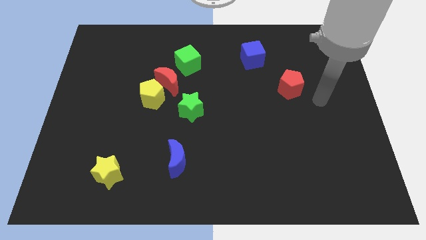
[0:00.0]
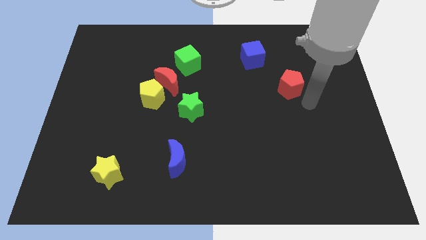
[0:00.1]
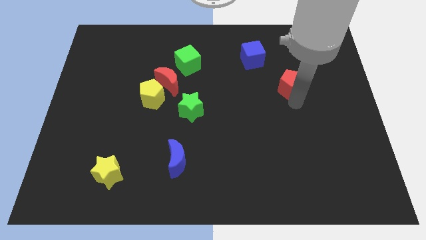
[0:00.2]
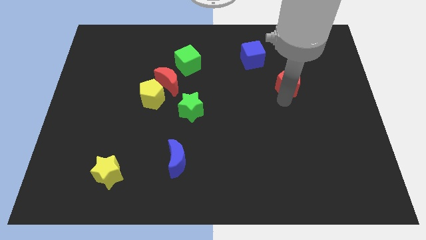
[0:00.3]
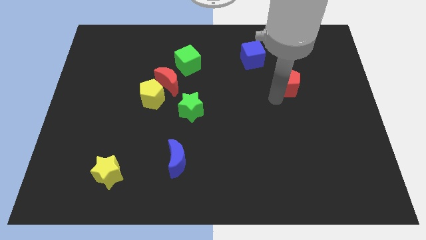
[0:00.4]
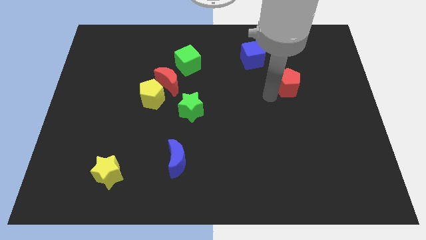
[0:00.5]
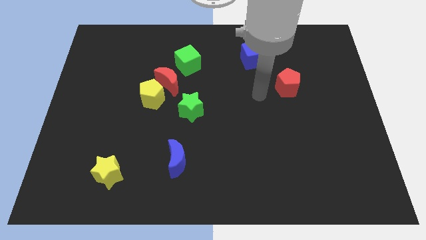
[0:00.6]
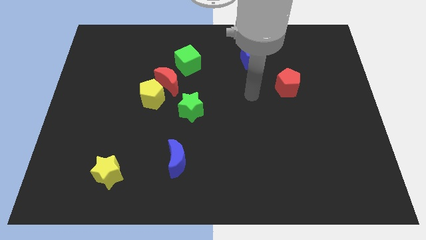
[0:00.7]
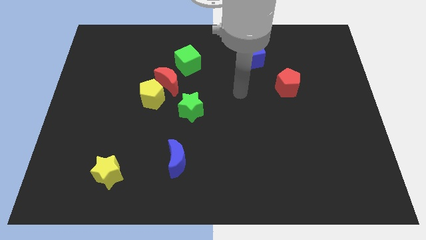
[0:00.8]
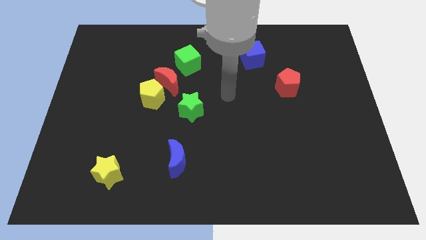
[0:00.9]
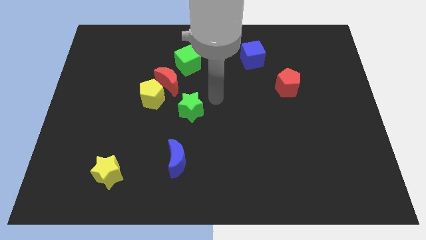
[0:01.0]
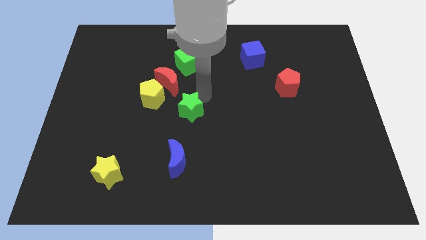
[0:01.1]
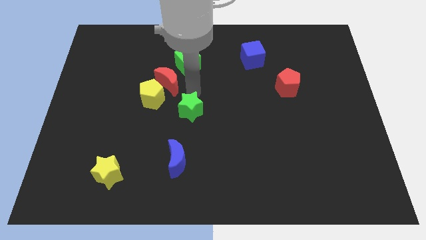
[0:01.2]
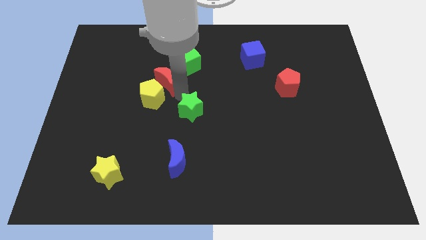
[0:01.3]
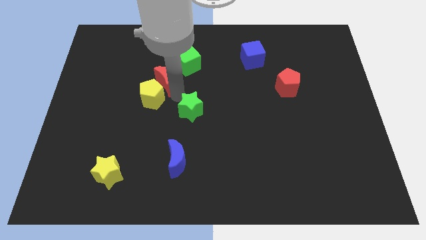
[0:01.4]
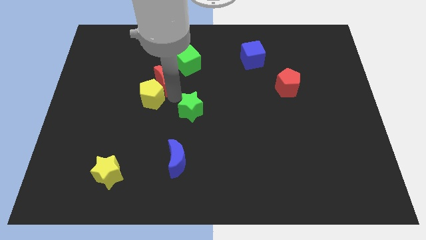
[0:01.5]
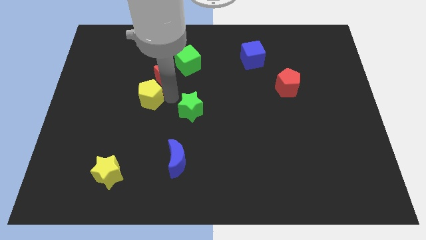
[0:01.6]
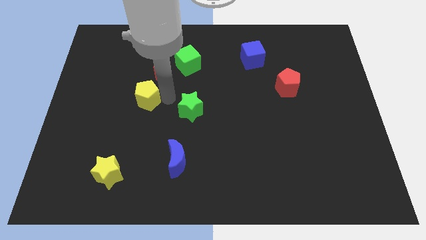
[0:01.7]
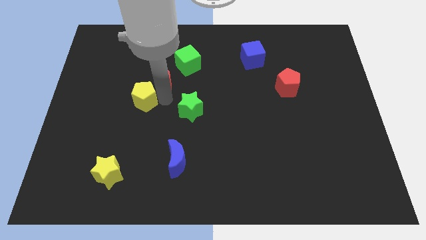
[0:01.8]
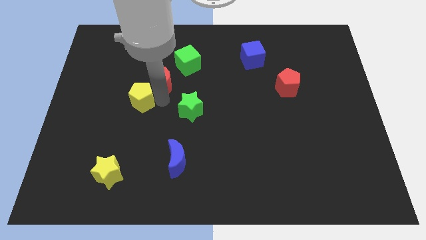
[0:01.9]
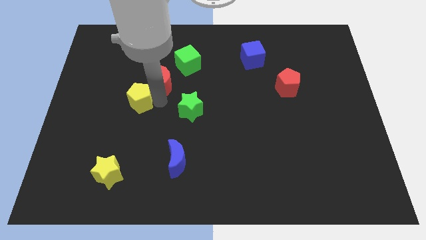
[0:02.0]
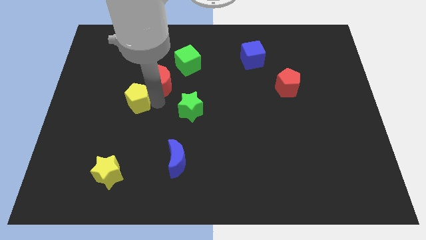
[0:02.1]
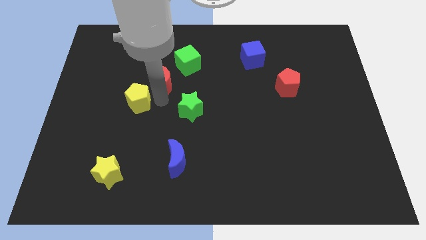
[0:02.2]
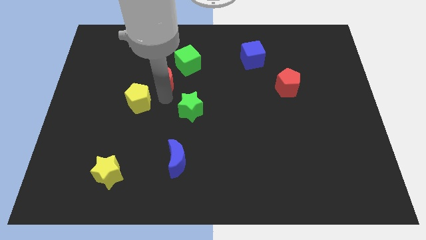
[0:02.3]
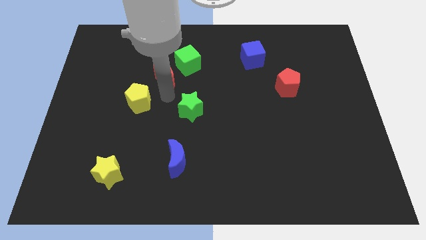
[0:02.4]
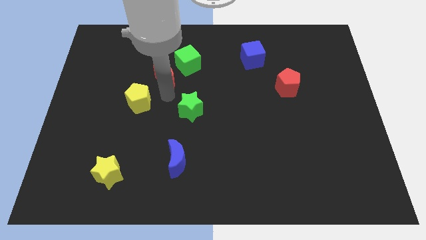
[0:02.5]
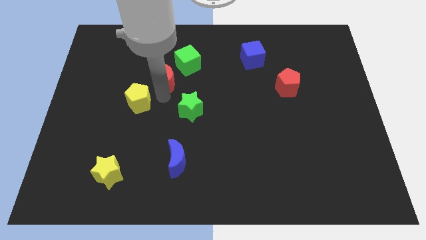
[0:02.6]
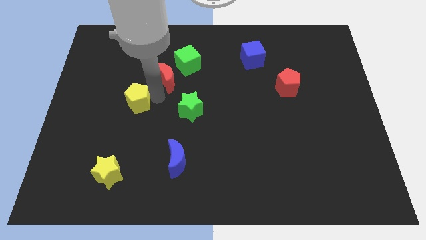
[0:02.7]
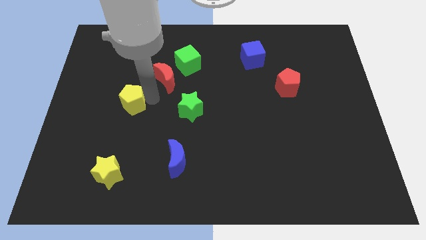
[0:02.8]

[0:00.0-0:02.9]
pull the yellow pentagon apart from the red moon and green star

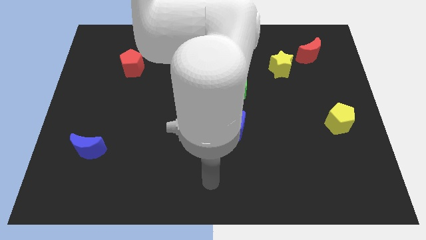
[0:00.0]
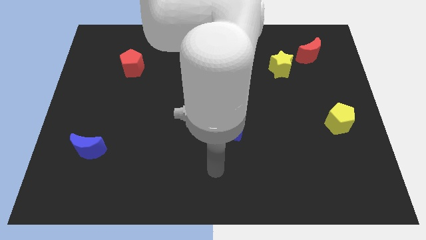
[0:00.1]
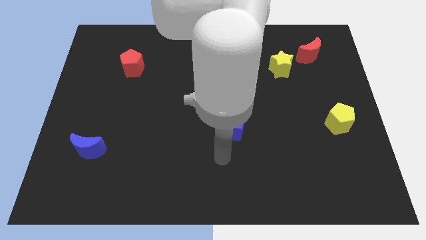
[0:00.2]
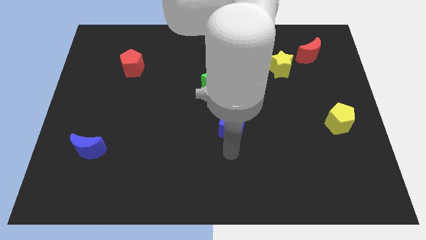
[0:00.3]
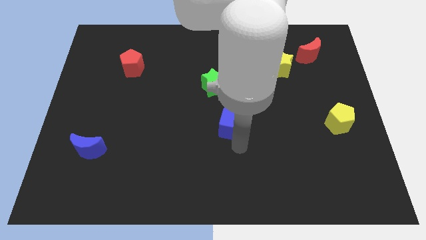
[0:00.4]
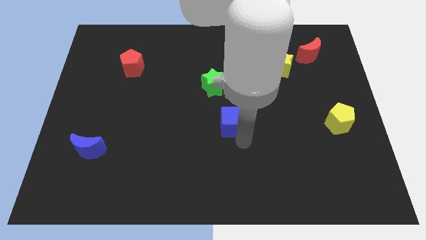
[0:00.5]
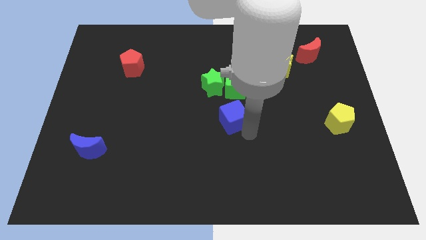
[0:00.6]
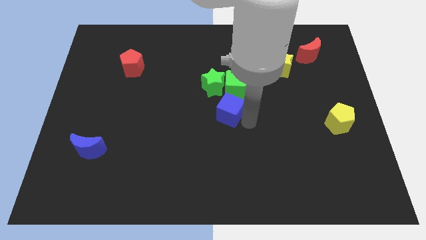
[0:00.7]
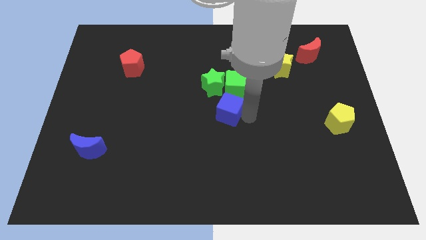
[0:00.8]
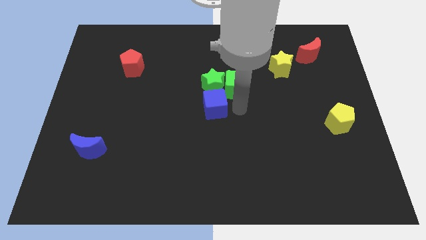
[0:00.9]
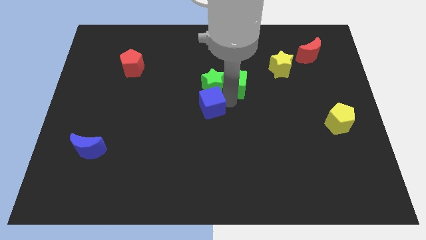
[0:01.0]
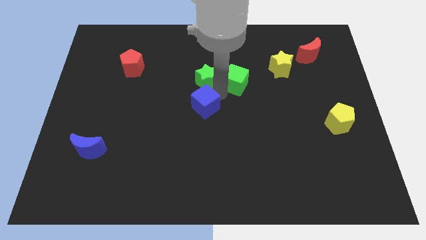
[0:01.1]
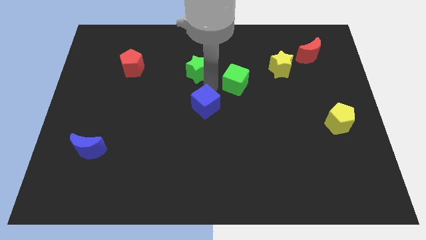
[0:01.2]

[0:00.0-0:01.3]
move the green cube away from the green star

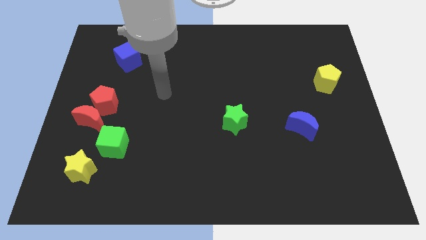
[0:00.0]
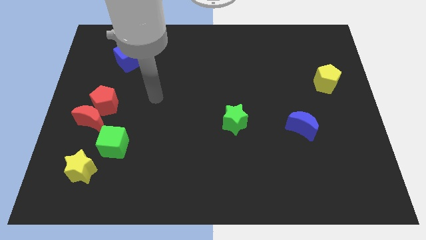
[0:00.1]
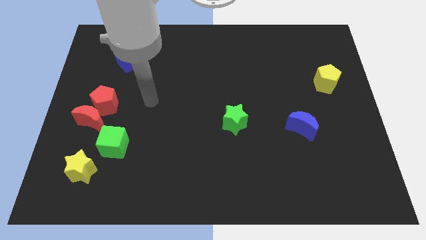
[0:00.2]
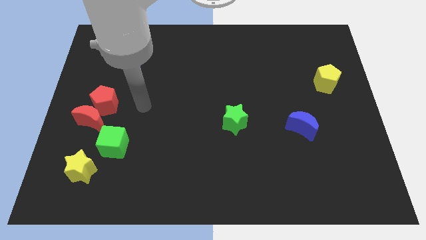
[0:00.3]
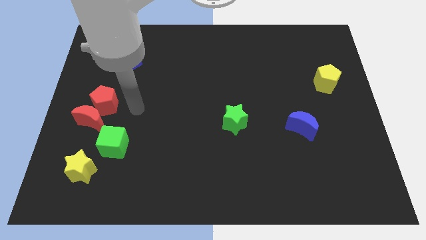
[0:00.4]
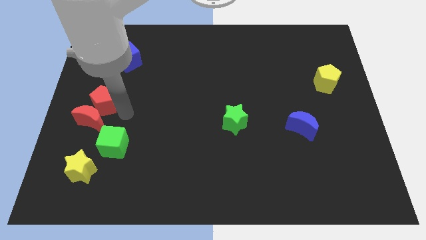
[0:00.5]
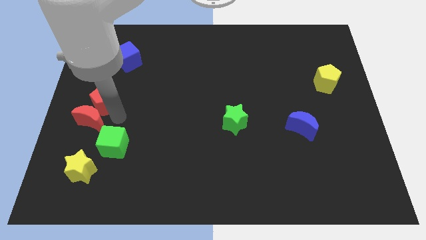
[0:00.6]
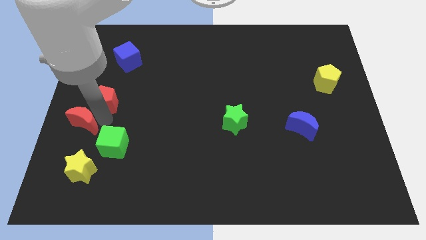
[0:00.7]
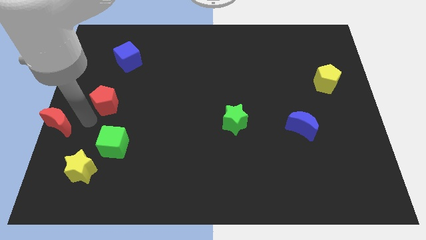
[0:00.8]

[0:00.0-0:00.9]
move the red pentagon away from the red moon

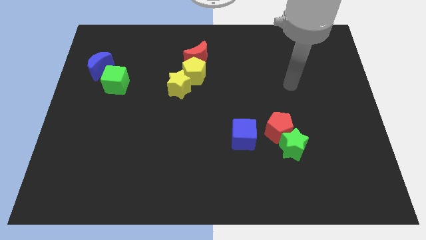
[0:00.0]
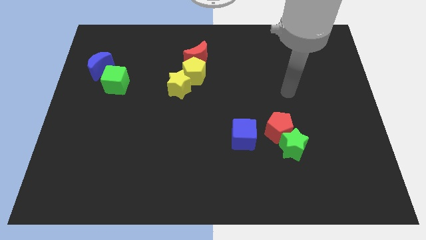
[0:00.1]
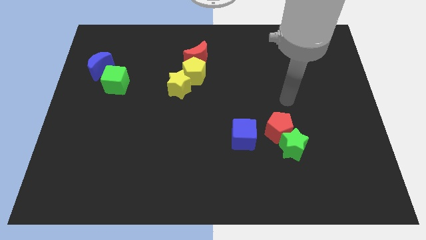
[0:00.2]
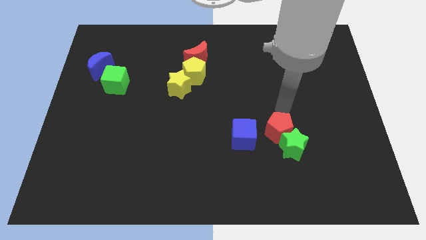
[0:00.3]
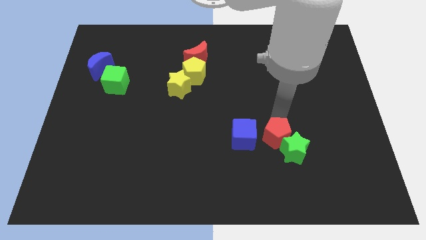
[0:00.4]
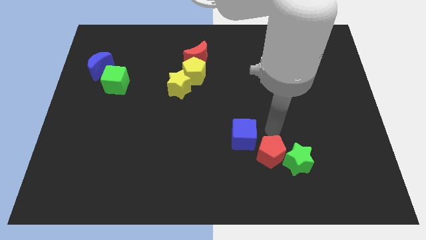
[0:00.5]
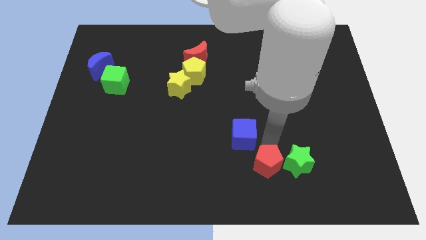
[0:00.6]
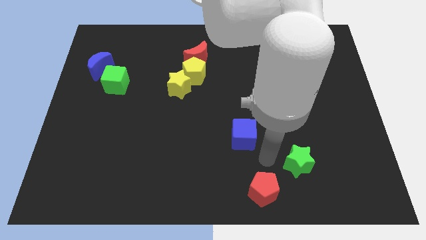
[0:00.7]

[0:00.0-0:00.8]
move the green star away from the red pentagon

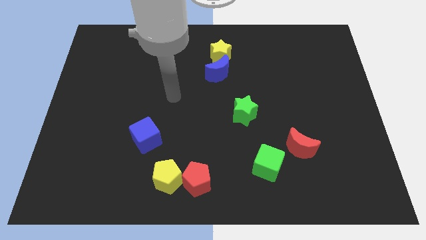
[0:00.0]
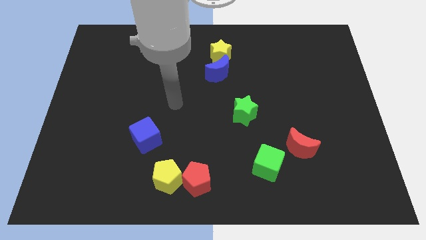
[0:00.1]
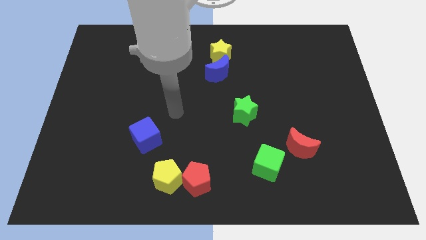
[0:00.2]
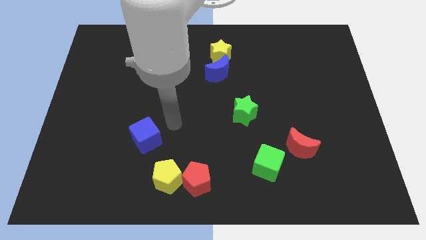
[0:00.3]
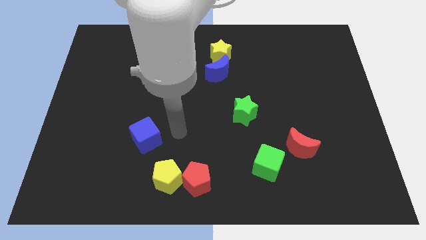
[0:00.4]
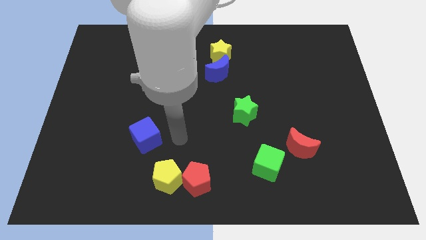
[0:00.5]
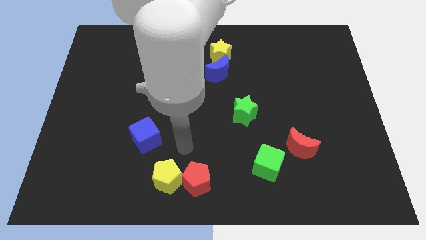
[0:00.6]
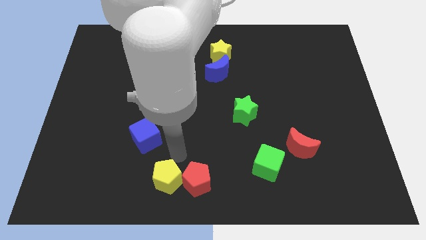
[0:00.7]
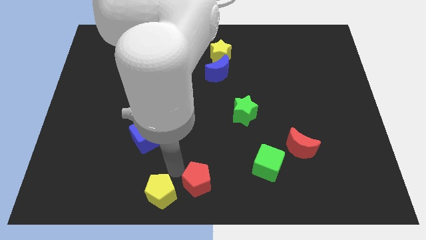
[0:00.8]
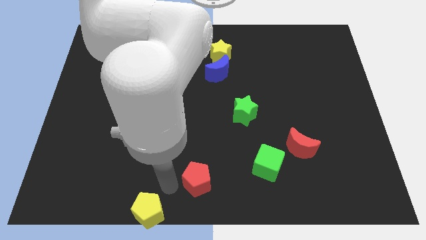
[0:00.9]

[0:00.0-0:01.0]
pull the red pentagon apart from the yellow pentagon

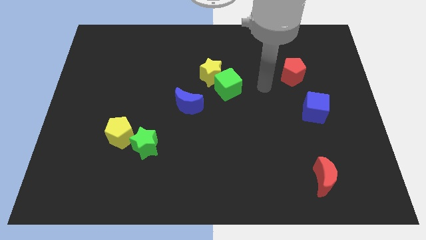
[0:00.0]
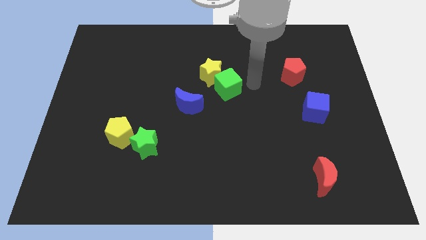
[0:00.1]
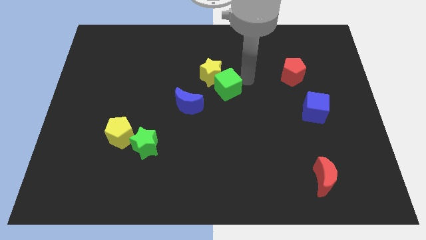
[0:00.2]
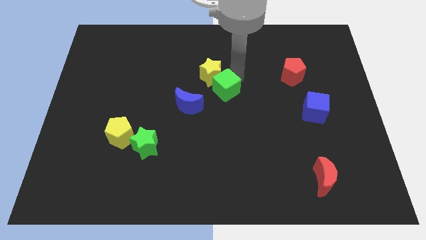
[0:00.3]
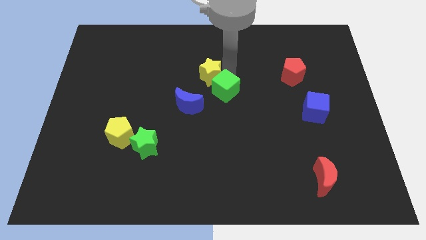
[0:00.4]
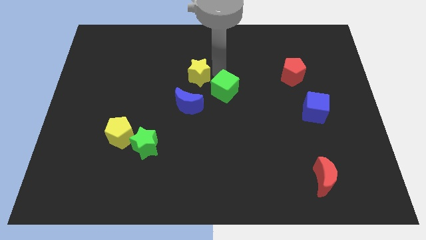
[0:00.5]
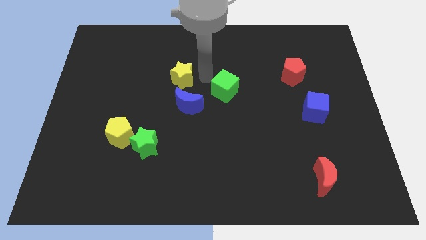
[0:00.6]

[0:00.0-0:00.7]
pull the green cube apart from the yellow star

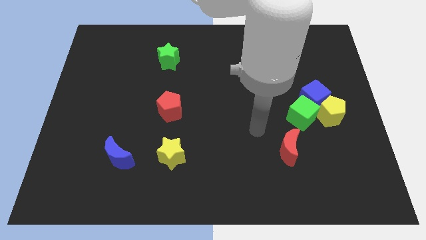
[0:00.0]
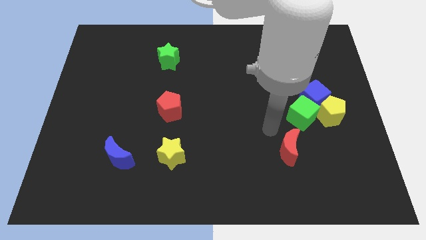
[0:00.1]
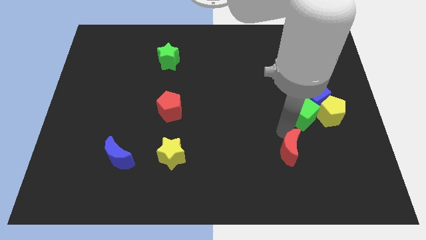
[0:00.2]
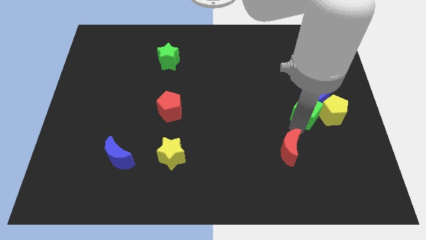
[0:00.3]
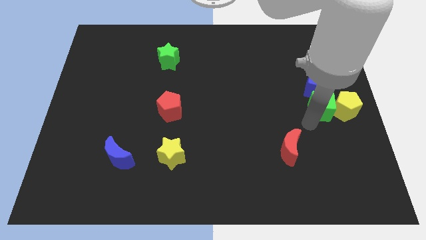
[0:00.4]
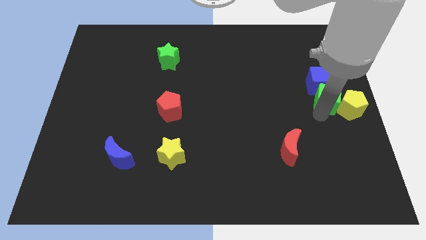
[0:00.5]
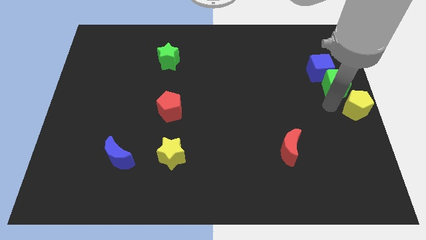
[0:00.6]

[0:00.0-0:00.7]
separate the blue cube from the yellow pentagon and green cube

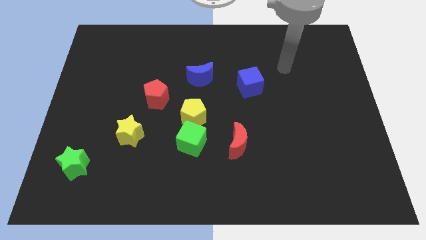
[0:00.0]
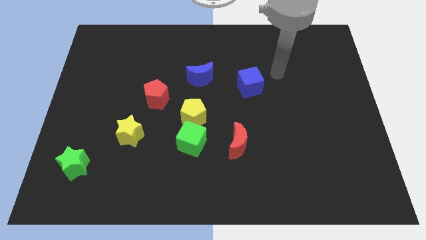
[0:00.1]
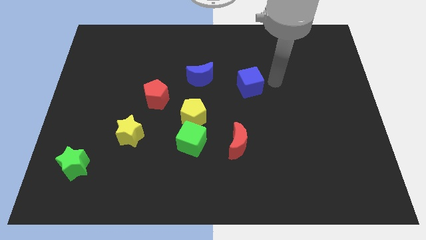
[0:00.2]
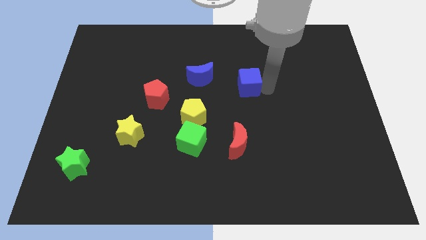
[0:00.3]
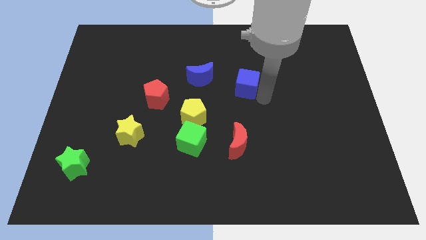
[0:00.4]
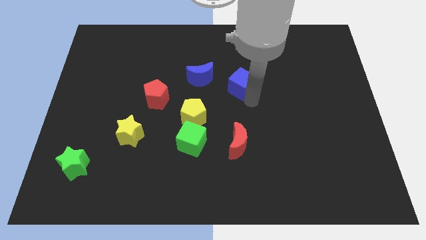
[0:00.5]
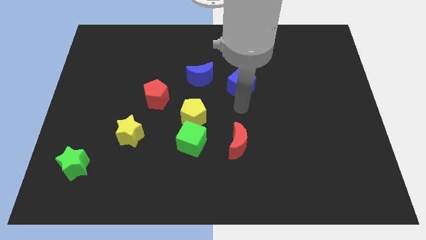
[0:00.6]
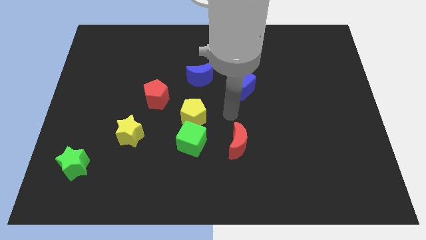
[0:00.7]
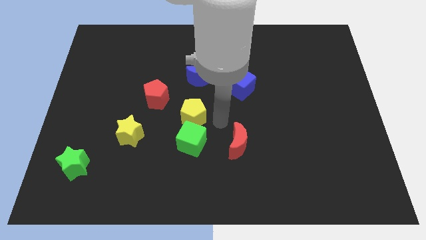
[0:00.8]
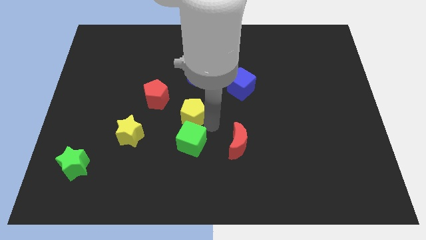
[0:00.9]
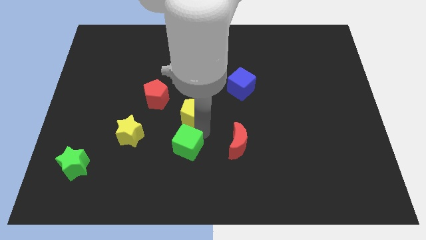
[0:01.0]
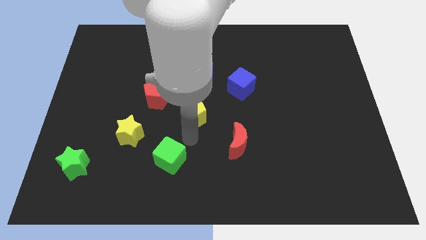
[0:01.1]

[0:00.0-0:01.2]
separate the yellow pentagon from the green cube
